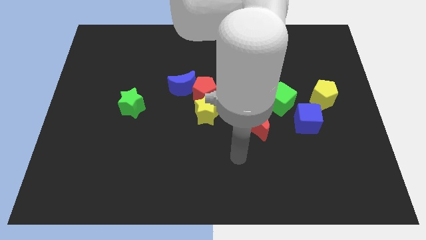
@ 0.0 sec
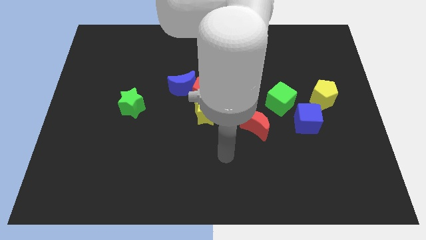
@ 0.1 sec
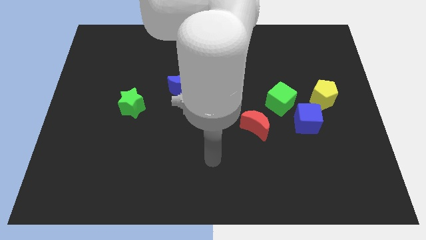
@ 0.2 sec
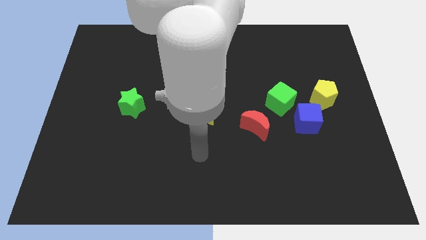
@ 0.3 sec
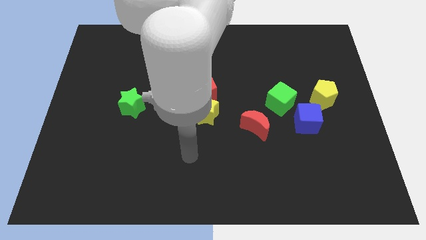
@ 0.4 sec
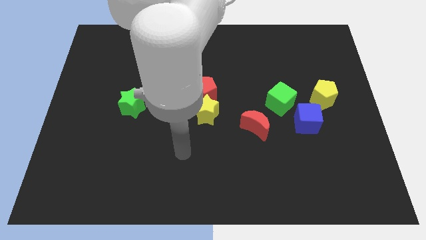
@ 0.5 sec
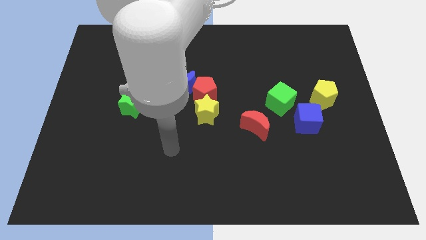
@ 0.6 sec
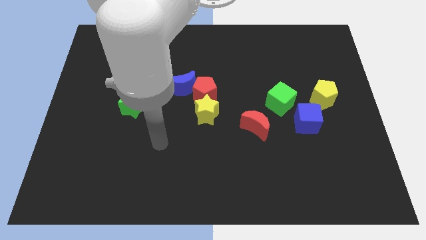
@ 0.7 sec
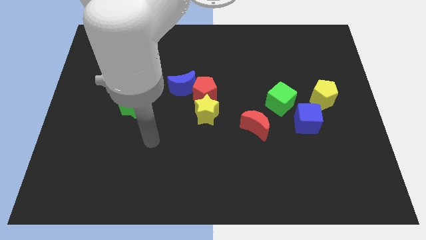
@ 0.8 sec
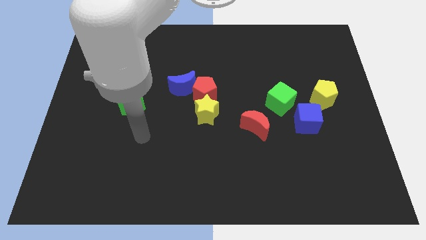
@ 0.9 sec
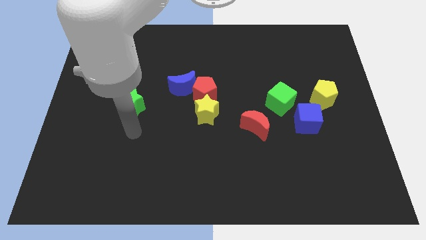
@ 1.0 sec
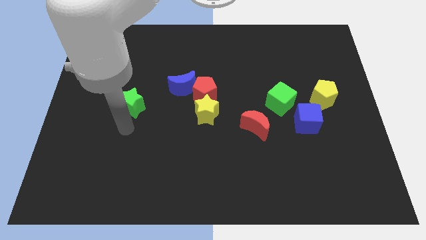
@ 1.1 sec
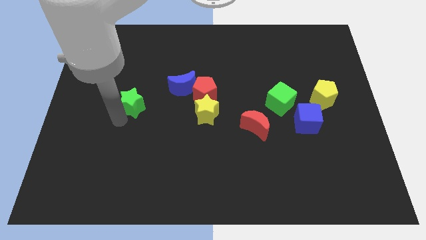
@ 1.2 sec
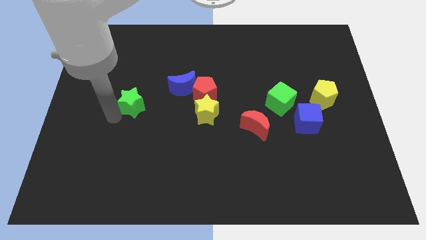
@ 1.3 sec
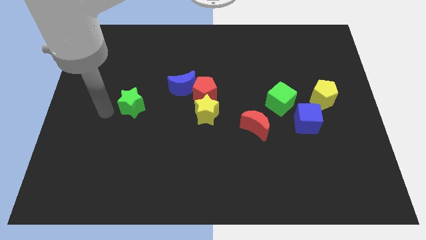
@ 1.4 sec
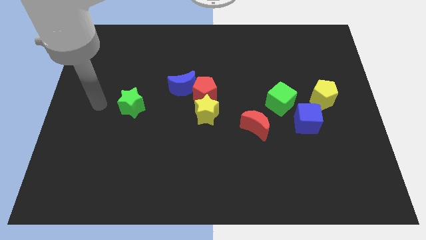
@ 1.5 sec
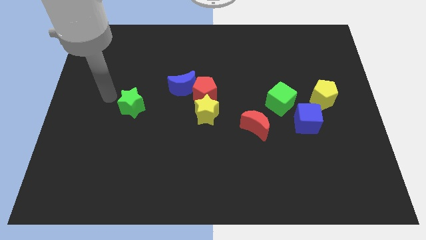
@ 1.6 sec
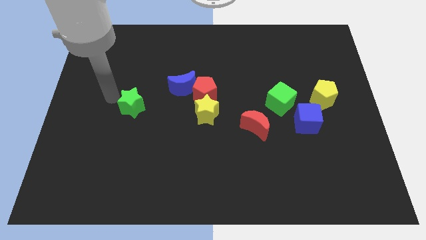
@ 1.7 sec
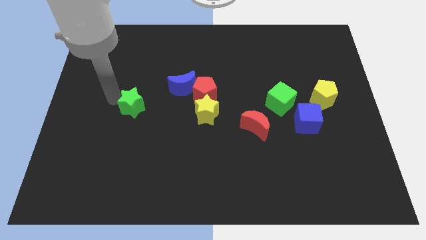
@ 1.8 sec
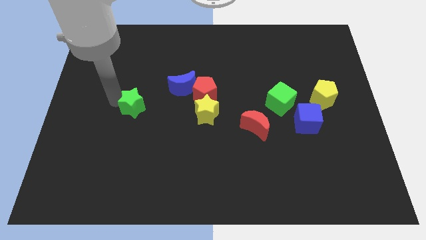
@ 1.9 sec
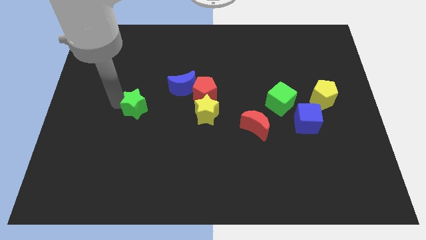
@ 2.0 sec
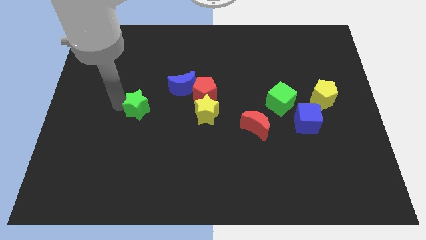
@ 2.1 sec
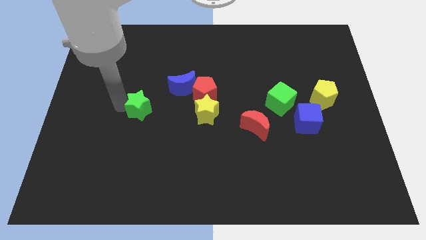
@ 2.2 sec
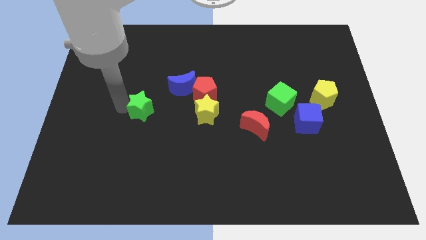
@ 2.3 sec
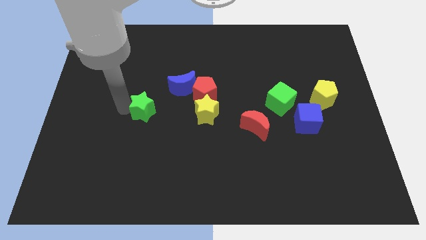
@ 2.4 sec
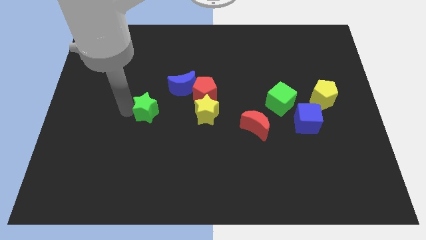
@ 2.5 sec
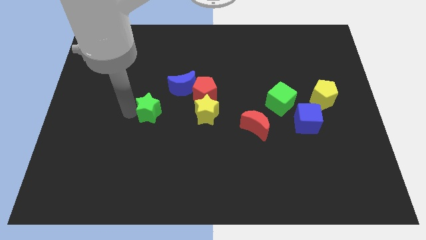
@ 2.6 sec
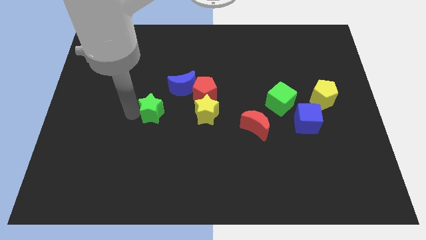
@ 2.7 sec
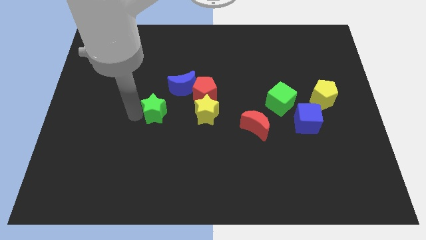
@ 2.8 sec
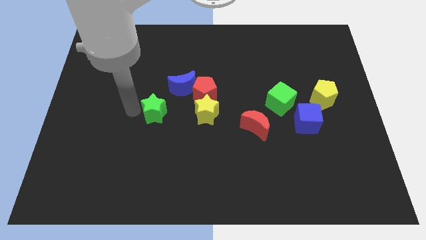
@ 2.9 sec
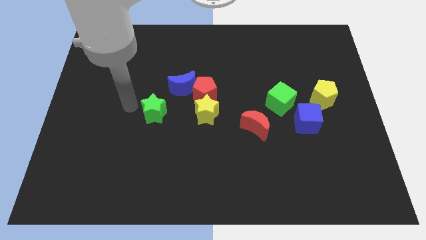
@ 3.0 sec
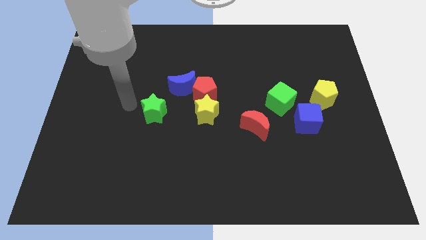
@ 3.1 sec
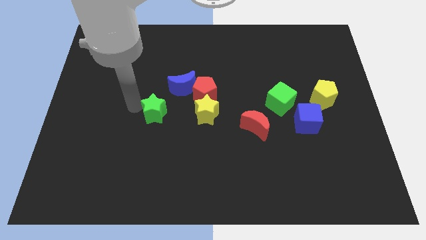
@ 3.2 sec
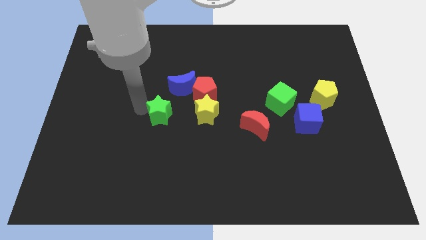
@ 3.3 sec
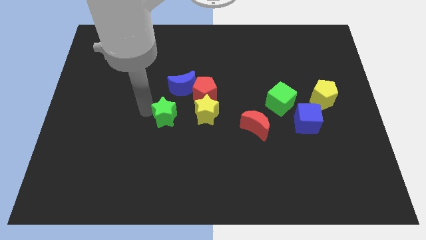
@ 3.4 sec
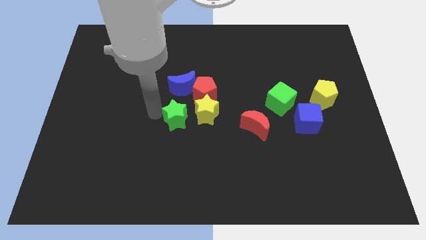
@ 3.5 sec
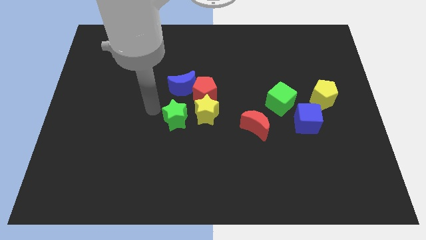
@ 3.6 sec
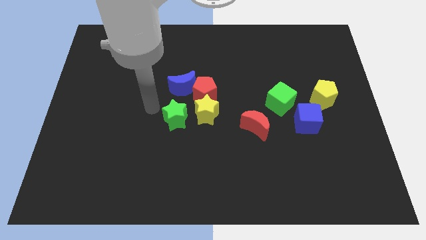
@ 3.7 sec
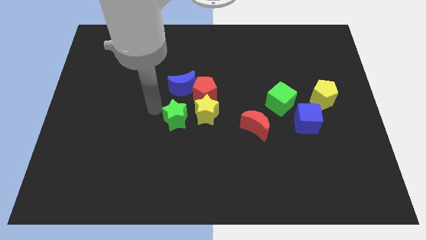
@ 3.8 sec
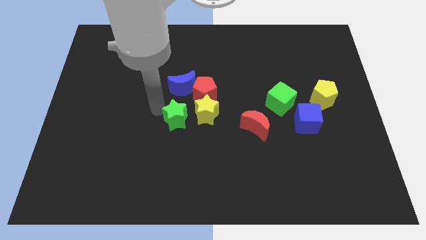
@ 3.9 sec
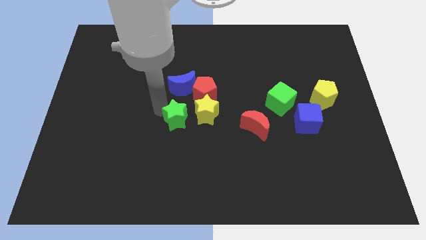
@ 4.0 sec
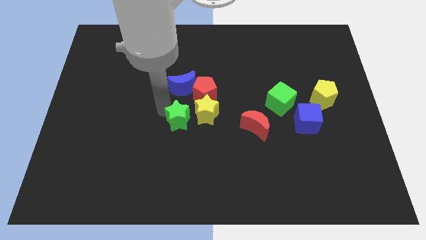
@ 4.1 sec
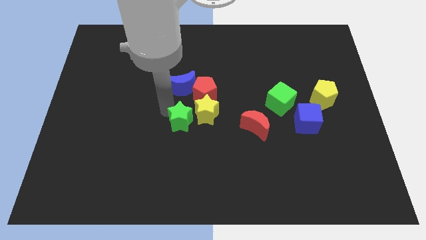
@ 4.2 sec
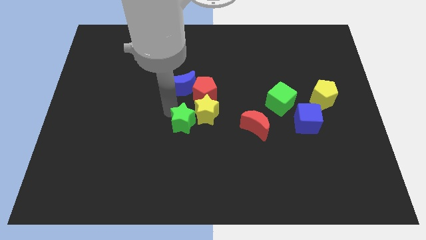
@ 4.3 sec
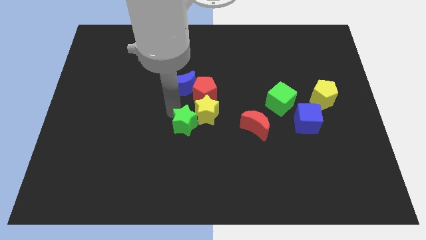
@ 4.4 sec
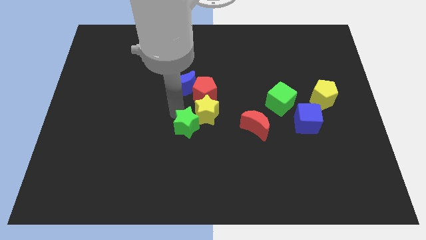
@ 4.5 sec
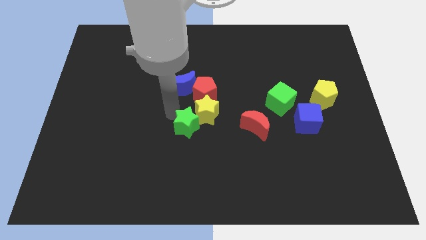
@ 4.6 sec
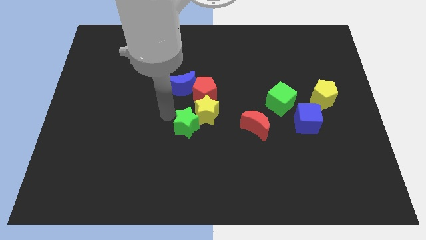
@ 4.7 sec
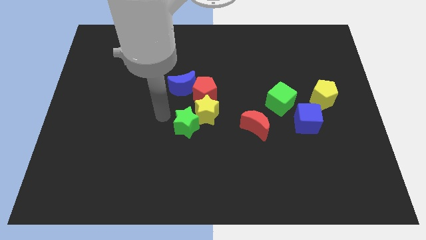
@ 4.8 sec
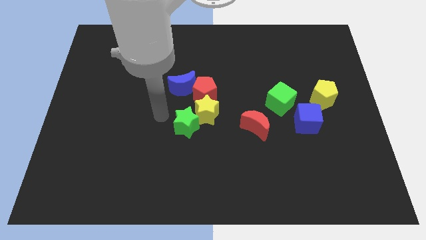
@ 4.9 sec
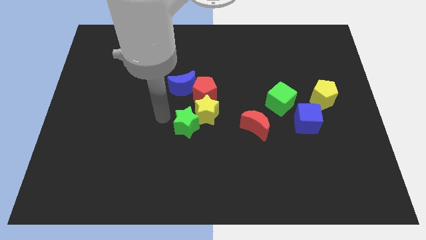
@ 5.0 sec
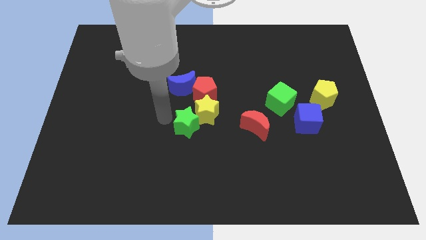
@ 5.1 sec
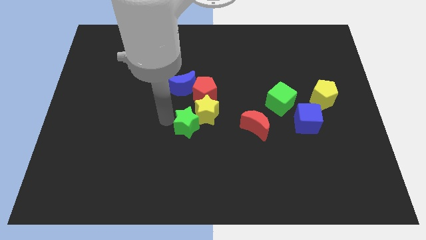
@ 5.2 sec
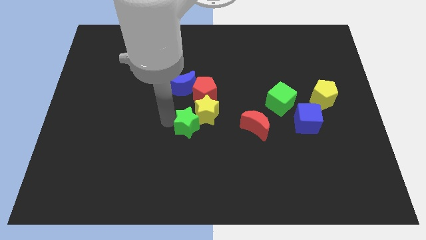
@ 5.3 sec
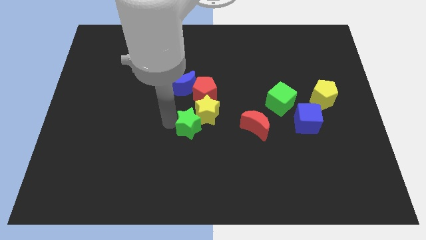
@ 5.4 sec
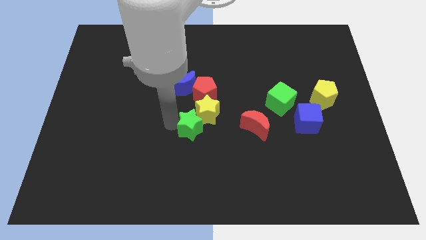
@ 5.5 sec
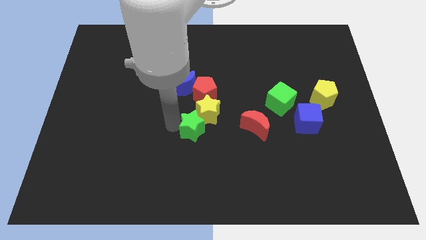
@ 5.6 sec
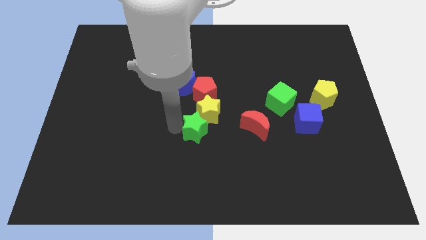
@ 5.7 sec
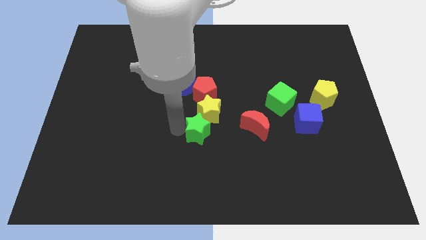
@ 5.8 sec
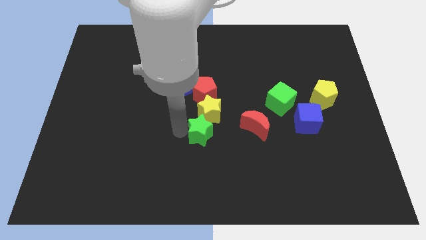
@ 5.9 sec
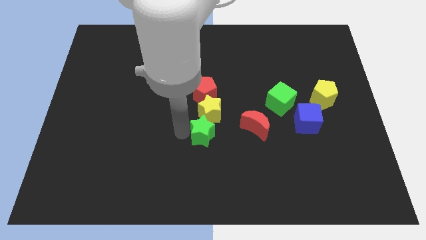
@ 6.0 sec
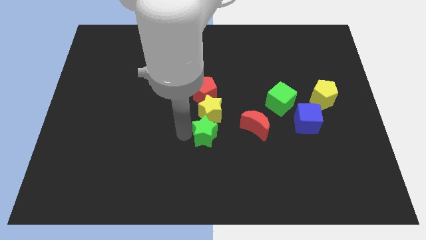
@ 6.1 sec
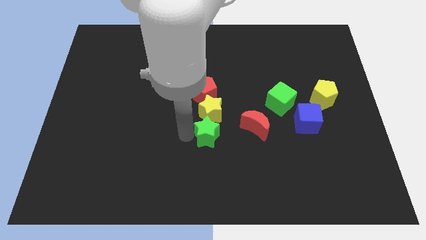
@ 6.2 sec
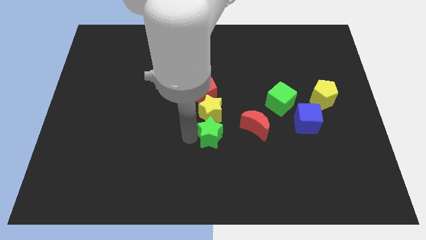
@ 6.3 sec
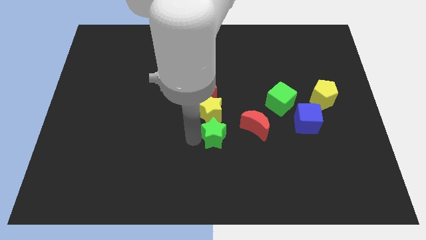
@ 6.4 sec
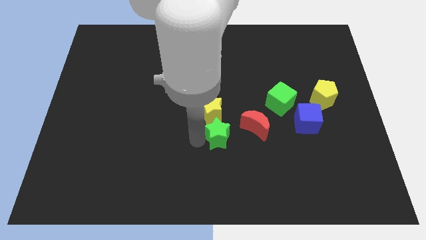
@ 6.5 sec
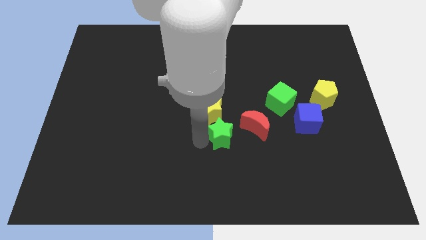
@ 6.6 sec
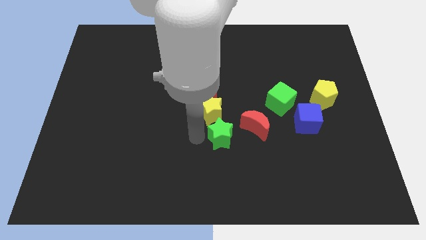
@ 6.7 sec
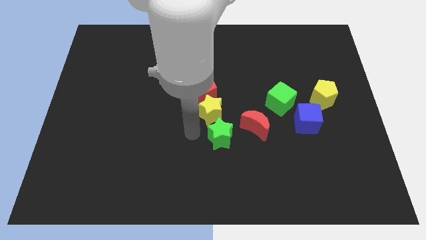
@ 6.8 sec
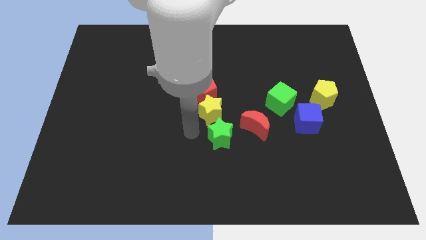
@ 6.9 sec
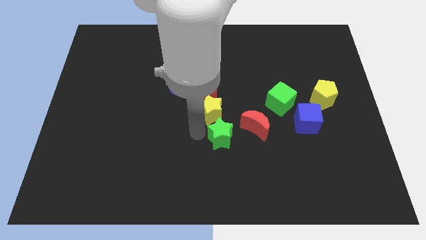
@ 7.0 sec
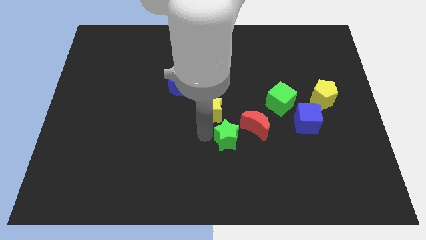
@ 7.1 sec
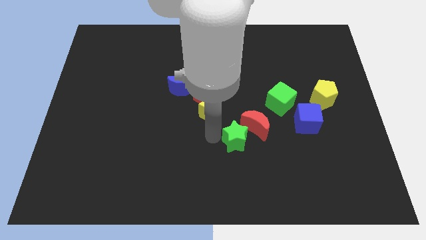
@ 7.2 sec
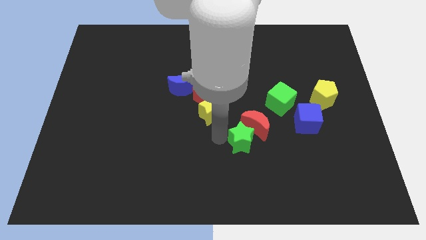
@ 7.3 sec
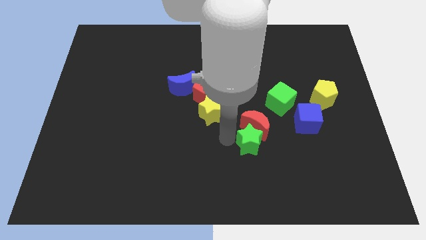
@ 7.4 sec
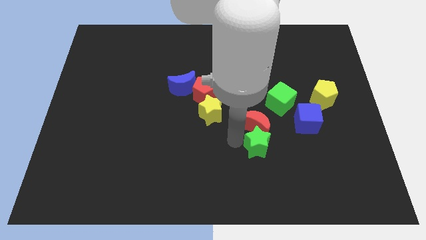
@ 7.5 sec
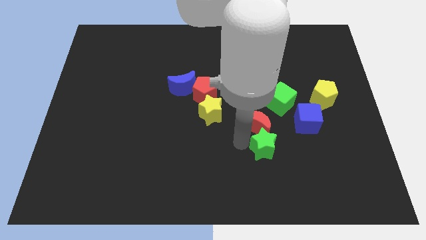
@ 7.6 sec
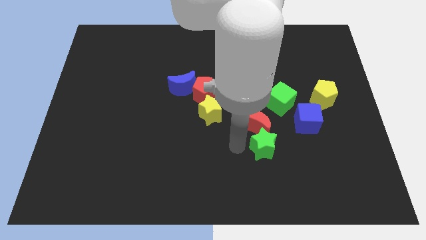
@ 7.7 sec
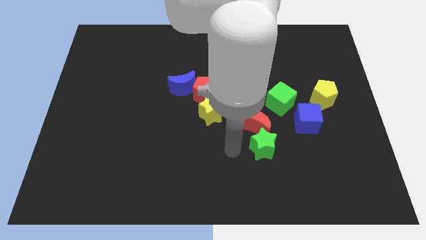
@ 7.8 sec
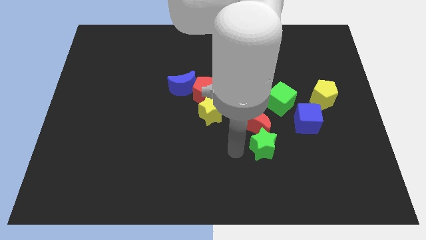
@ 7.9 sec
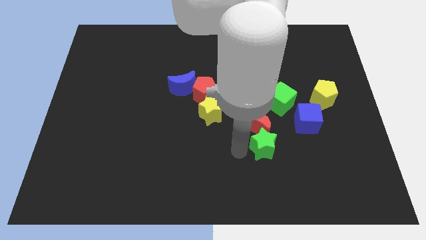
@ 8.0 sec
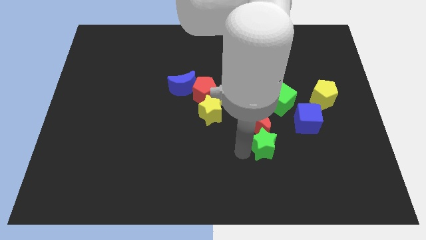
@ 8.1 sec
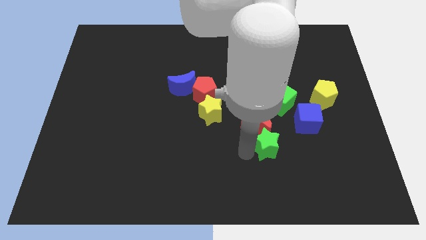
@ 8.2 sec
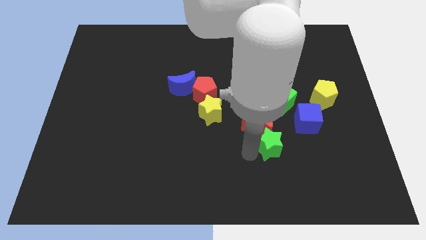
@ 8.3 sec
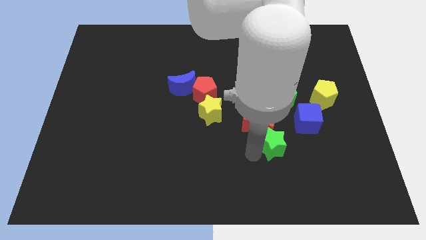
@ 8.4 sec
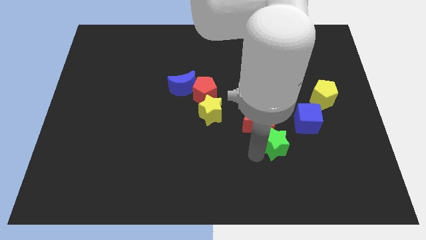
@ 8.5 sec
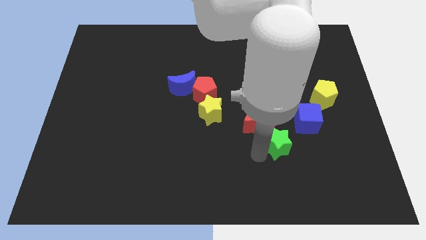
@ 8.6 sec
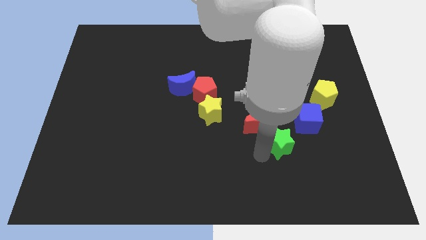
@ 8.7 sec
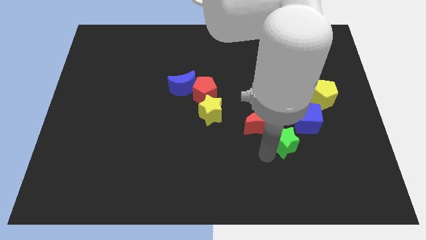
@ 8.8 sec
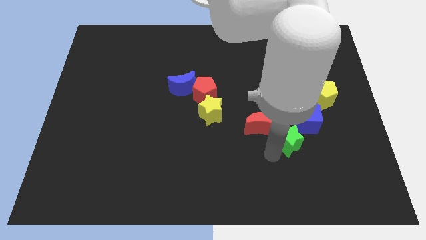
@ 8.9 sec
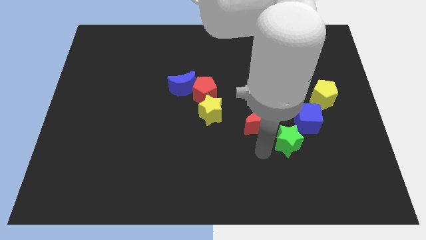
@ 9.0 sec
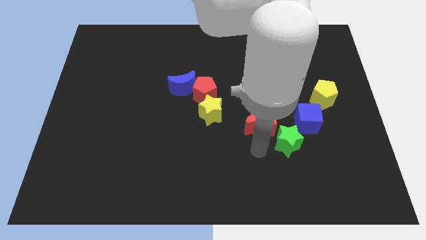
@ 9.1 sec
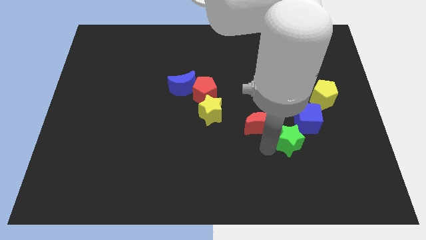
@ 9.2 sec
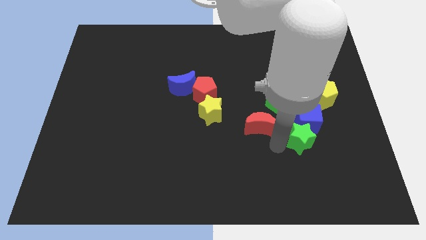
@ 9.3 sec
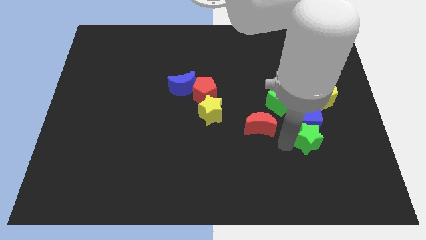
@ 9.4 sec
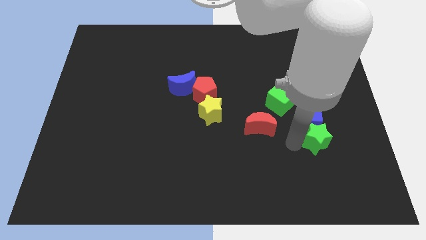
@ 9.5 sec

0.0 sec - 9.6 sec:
push the green star to the bottom side of the yellow pentagon
